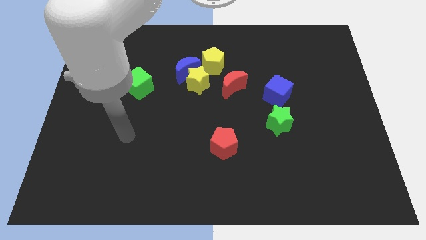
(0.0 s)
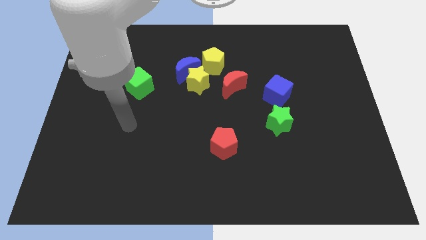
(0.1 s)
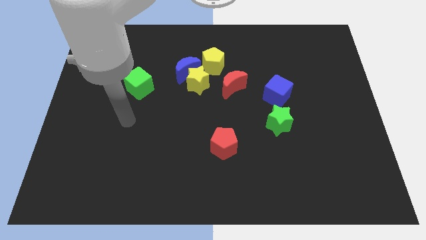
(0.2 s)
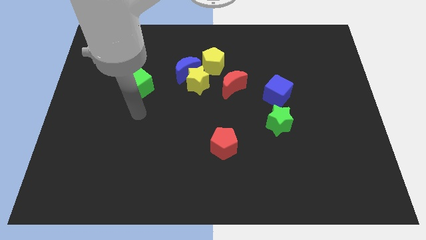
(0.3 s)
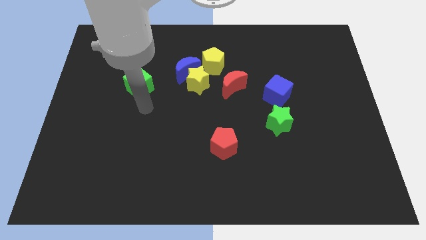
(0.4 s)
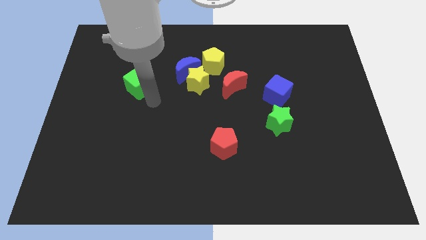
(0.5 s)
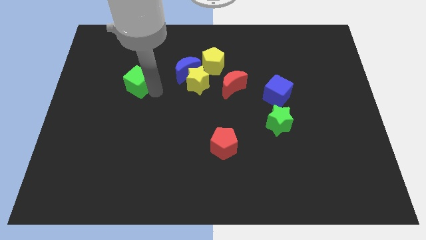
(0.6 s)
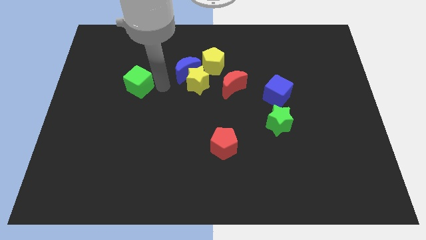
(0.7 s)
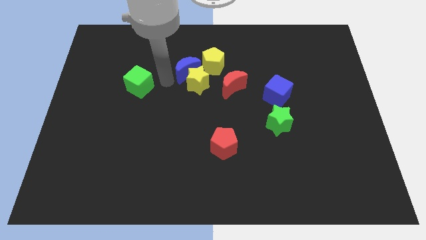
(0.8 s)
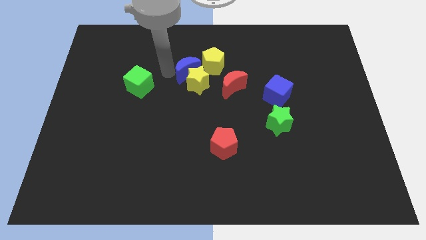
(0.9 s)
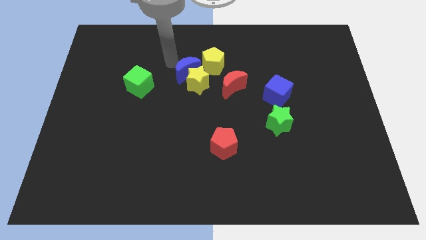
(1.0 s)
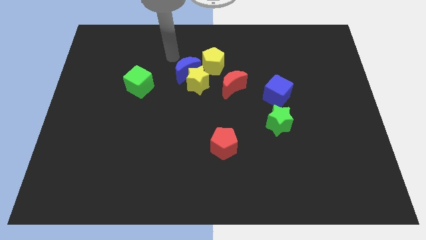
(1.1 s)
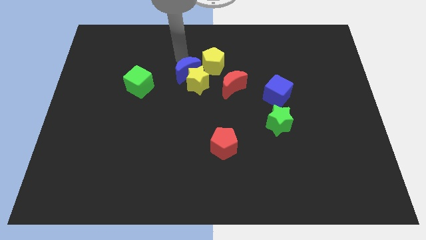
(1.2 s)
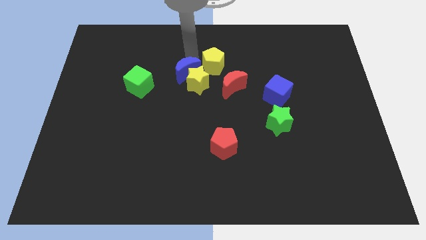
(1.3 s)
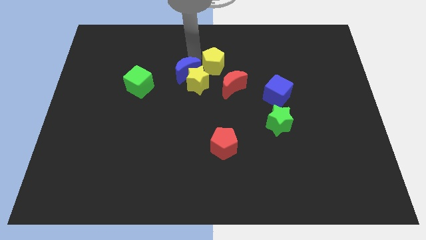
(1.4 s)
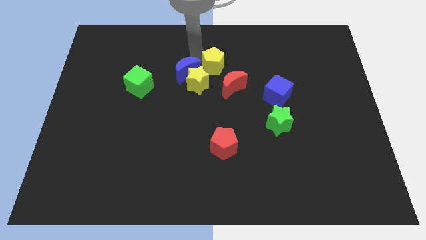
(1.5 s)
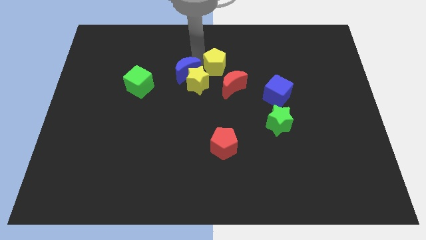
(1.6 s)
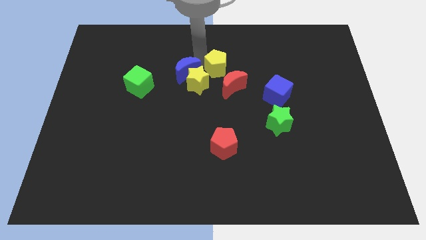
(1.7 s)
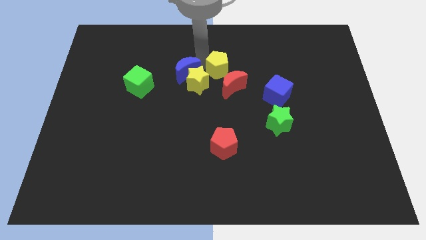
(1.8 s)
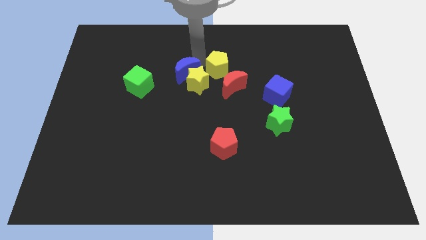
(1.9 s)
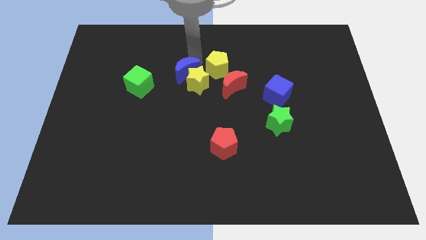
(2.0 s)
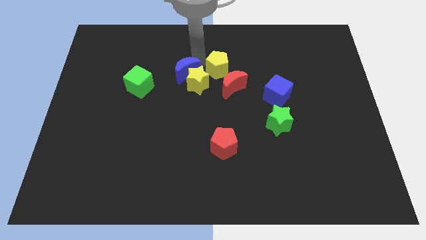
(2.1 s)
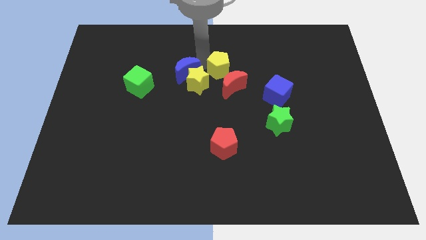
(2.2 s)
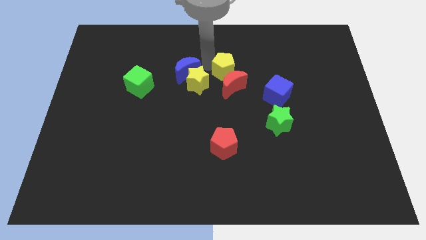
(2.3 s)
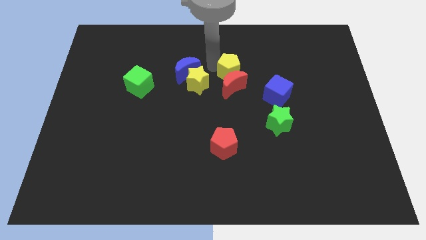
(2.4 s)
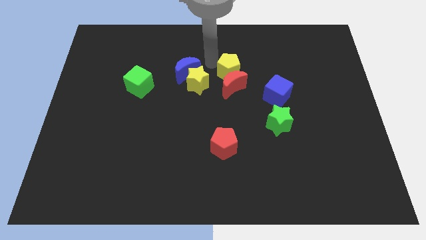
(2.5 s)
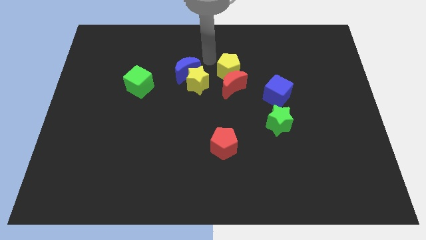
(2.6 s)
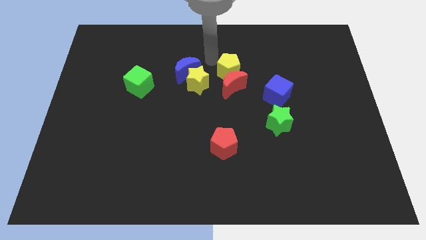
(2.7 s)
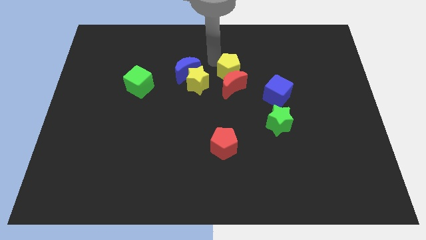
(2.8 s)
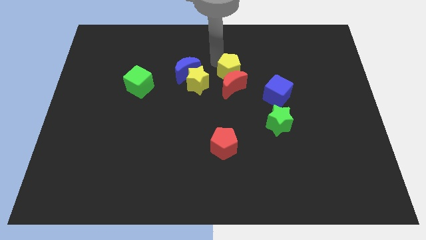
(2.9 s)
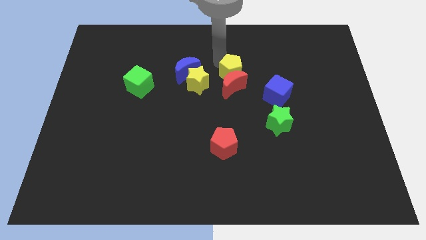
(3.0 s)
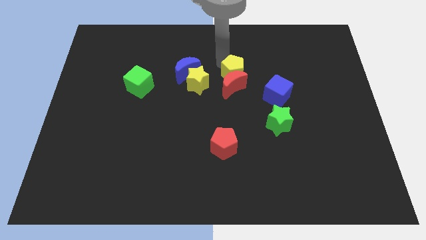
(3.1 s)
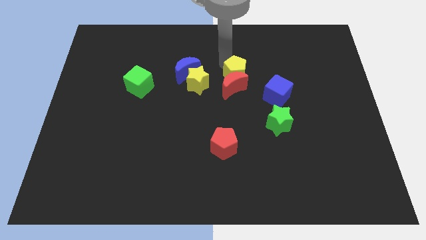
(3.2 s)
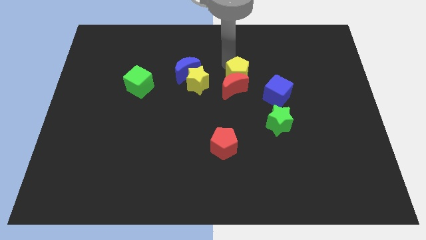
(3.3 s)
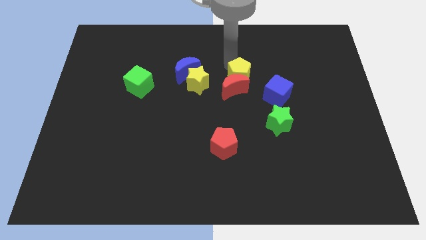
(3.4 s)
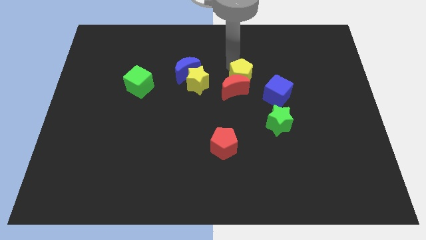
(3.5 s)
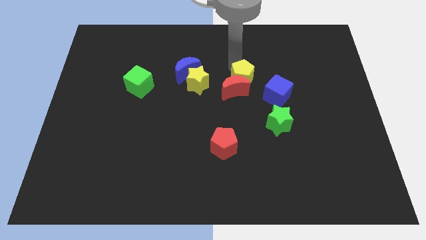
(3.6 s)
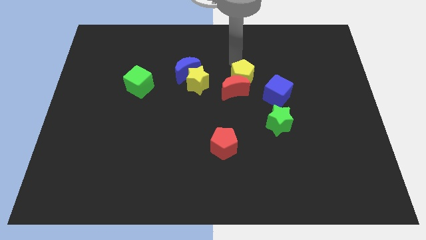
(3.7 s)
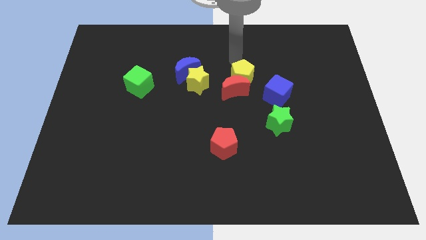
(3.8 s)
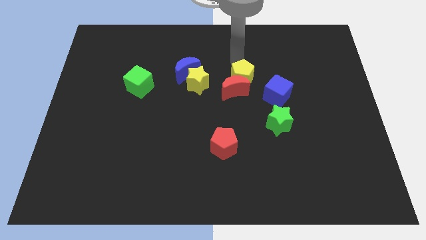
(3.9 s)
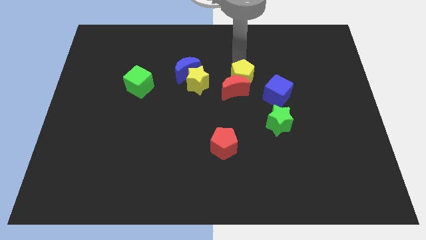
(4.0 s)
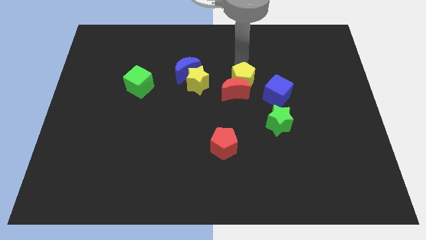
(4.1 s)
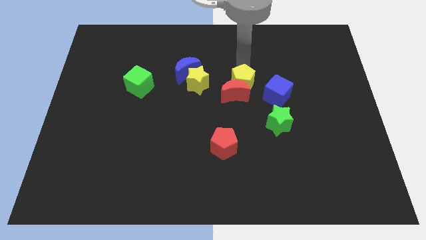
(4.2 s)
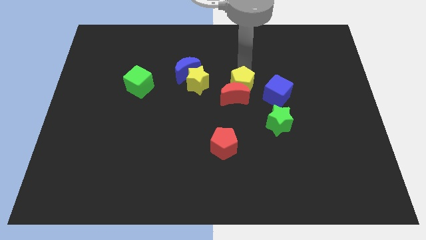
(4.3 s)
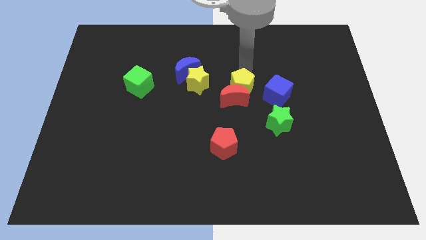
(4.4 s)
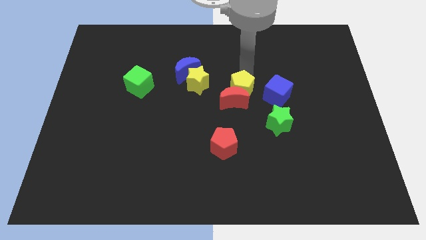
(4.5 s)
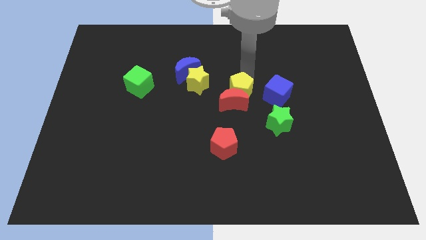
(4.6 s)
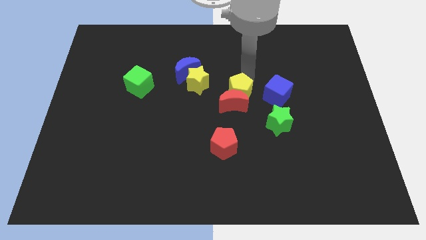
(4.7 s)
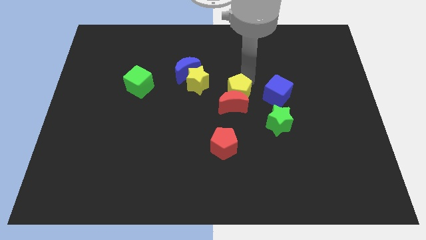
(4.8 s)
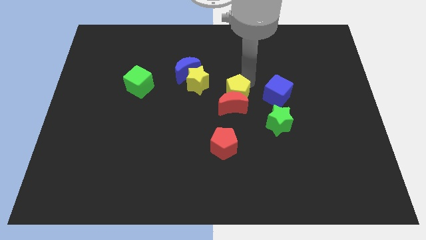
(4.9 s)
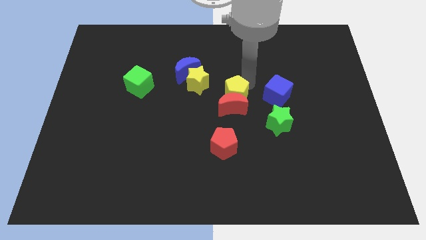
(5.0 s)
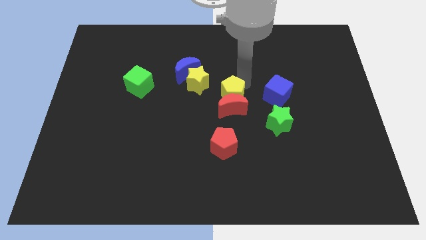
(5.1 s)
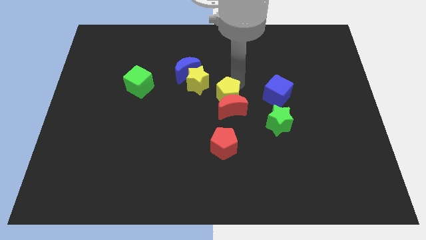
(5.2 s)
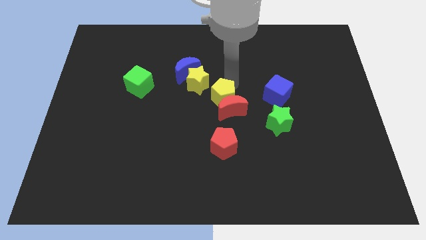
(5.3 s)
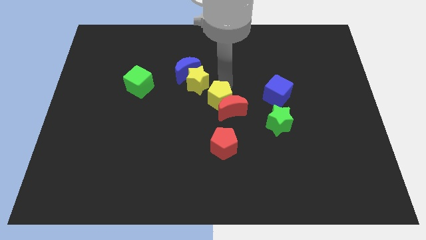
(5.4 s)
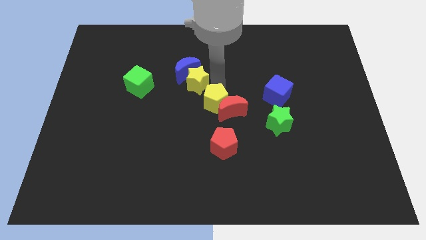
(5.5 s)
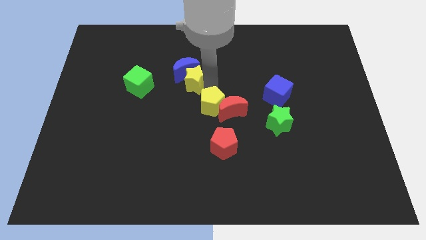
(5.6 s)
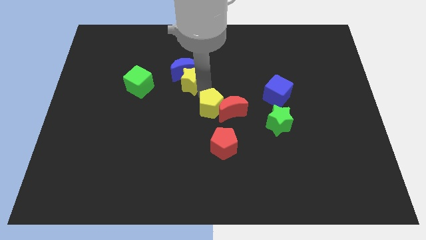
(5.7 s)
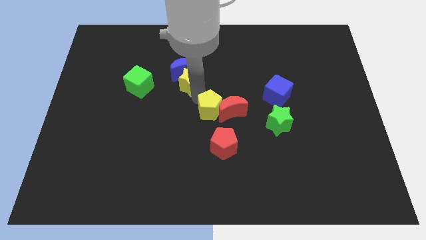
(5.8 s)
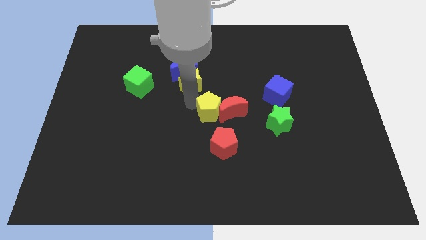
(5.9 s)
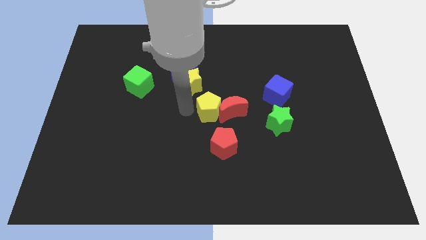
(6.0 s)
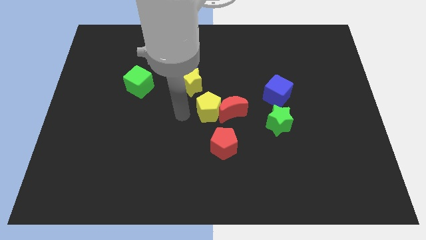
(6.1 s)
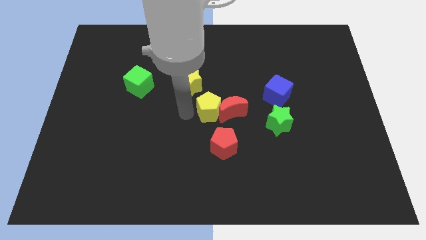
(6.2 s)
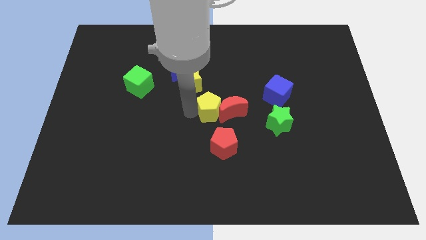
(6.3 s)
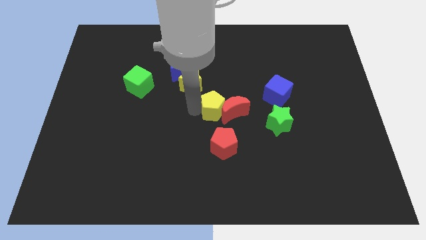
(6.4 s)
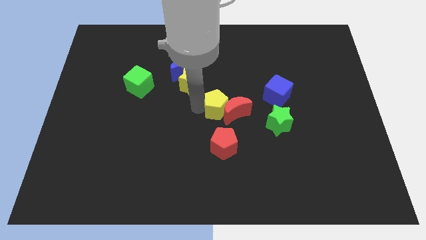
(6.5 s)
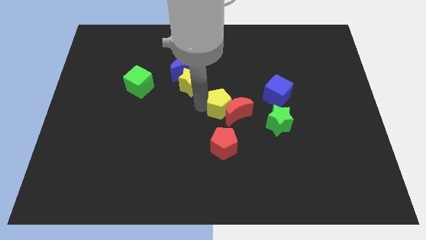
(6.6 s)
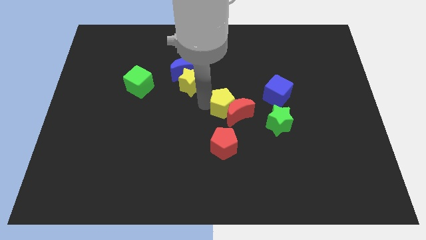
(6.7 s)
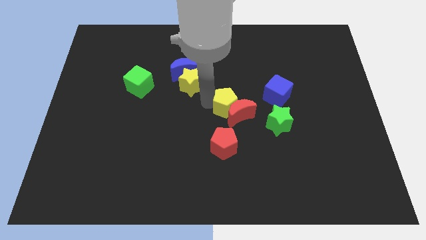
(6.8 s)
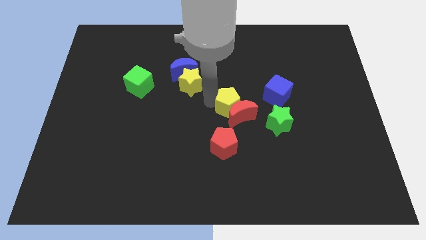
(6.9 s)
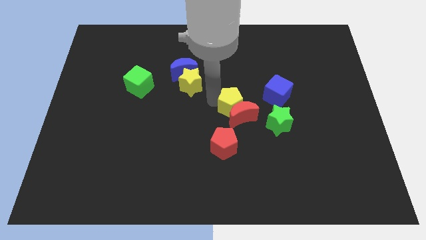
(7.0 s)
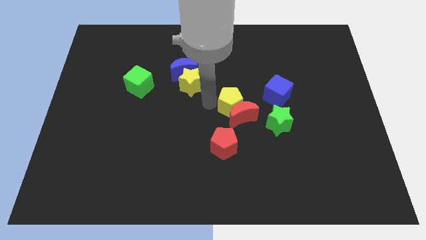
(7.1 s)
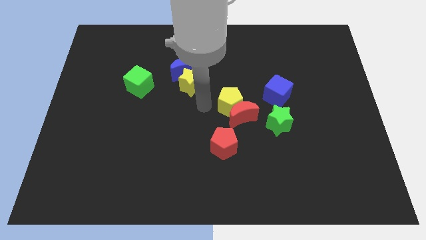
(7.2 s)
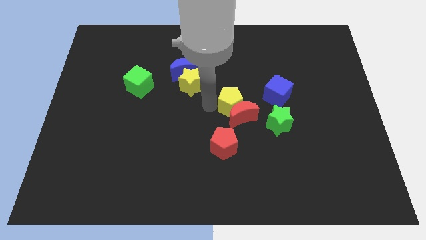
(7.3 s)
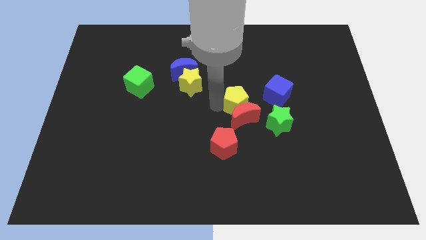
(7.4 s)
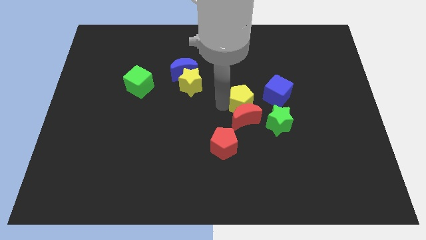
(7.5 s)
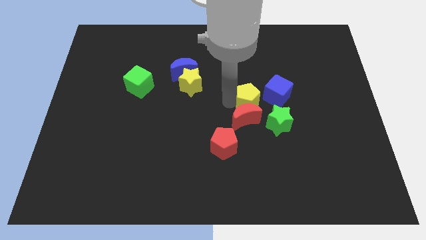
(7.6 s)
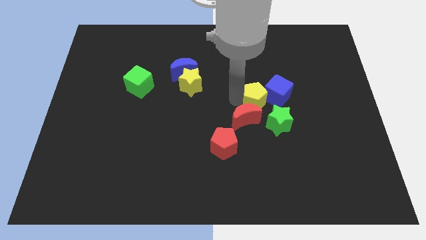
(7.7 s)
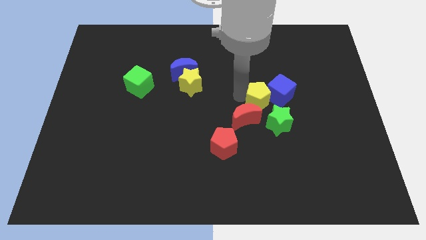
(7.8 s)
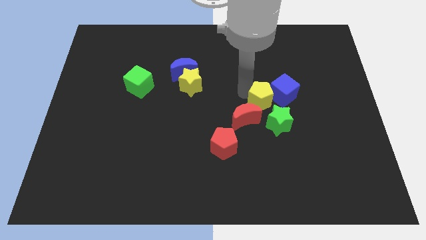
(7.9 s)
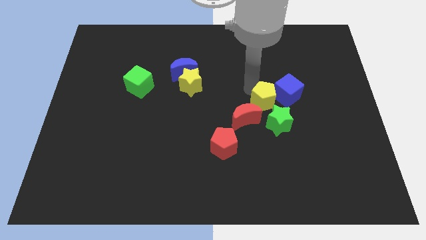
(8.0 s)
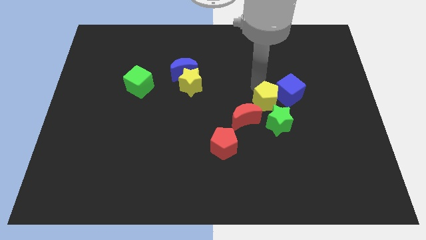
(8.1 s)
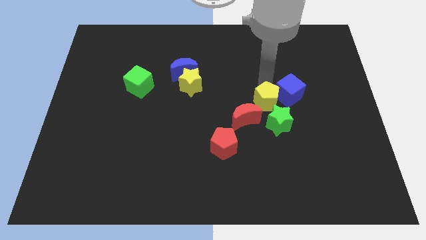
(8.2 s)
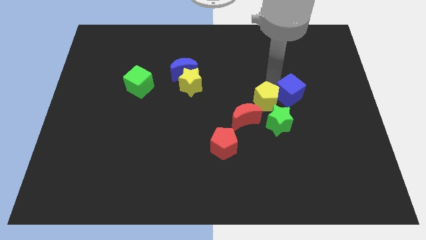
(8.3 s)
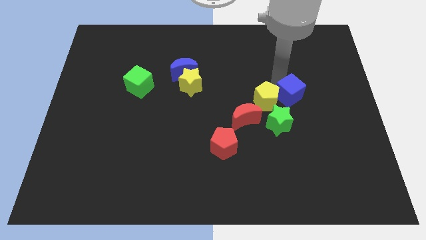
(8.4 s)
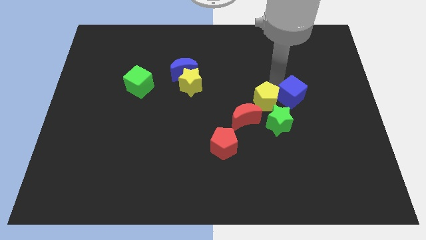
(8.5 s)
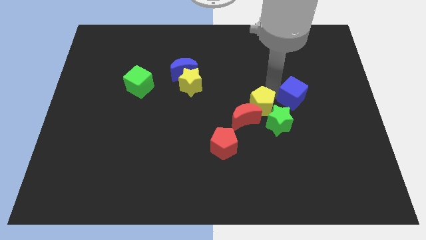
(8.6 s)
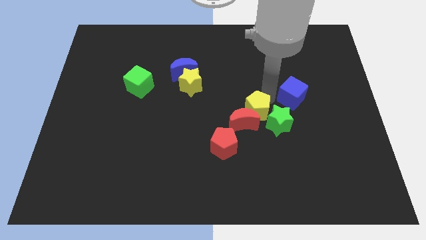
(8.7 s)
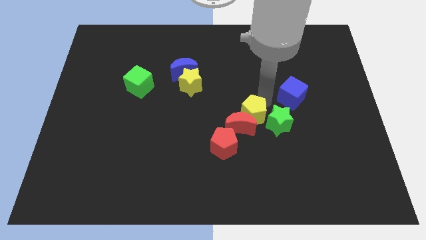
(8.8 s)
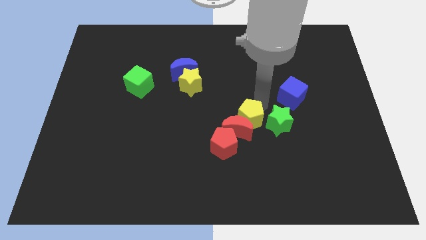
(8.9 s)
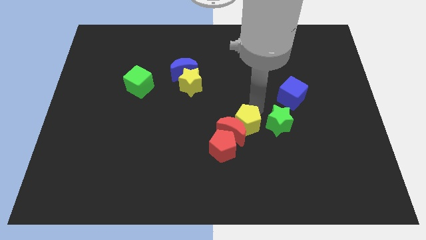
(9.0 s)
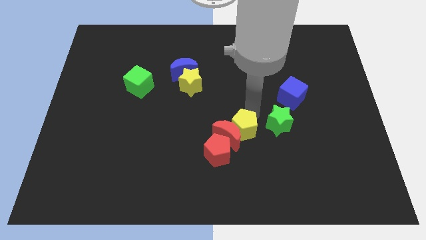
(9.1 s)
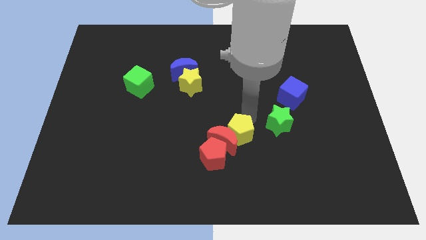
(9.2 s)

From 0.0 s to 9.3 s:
slide the yellow pentagon down
